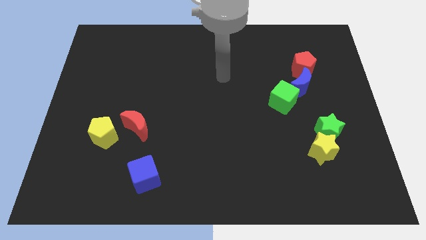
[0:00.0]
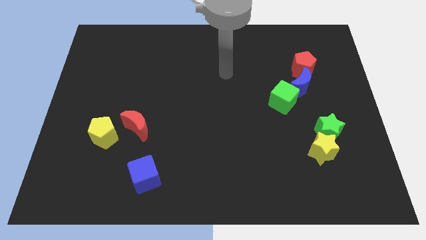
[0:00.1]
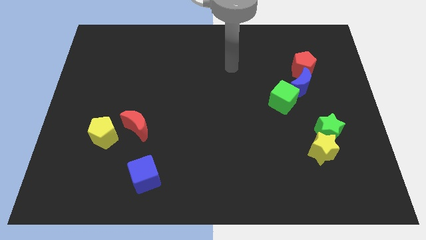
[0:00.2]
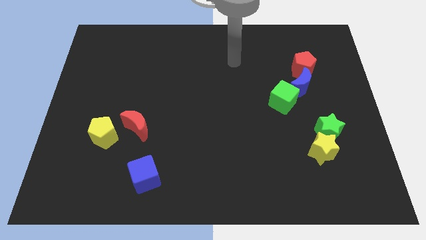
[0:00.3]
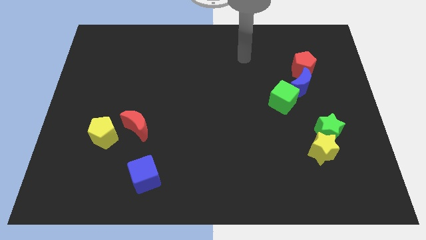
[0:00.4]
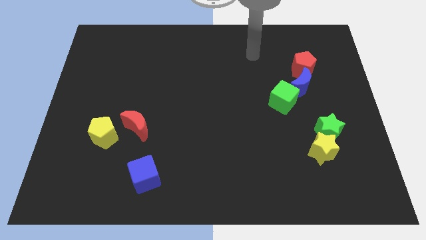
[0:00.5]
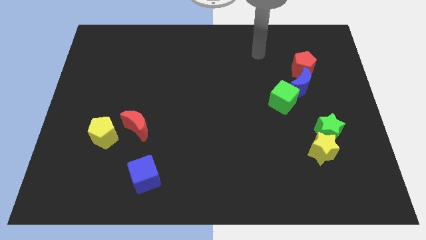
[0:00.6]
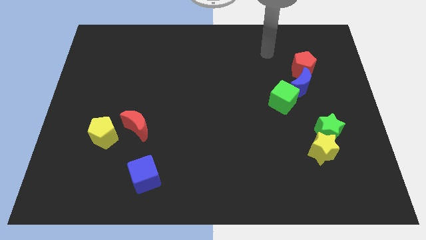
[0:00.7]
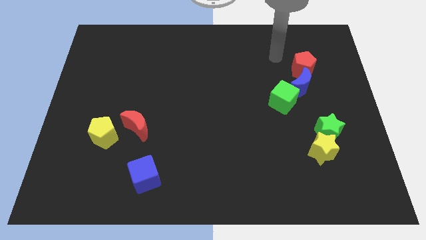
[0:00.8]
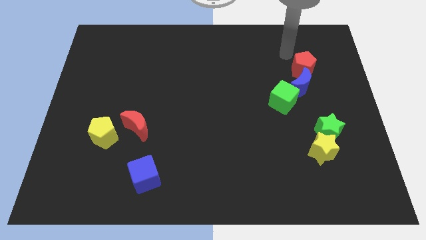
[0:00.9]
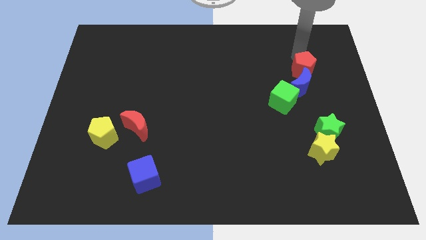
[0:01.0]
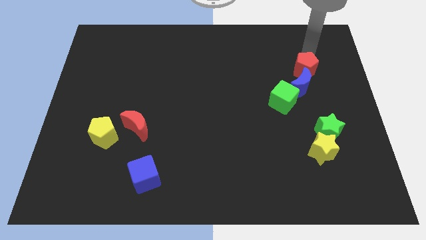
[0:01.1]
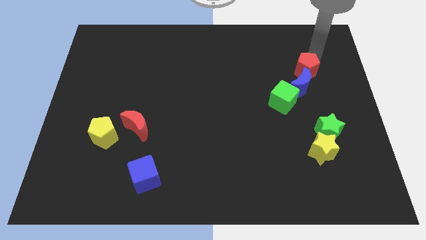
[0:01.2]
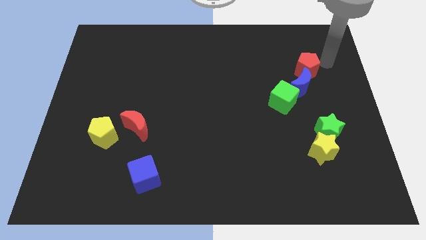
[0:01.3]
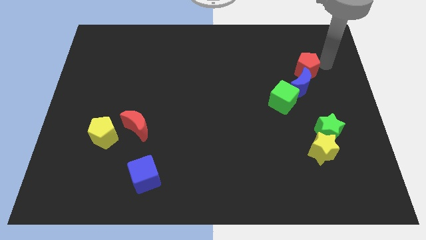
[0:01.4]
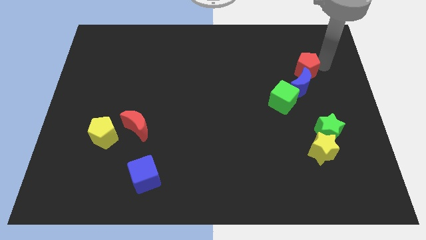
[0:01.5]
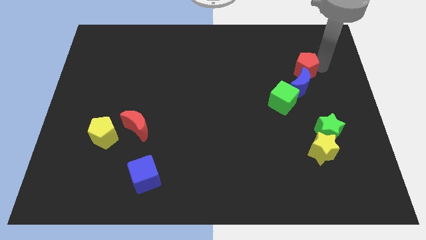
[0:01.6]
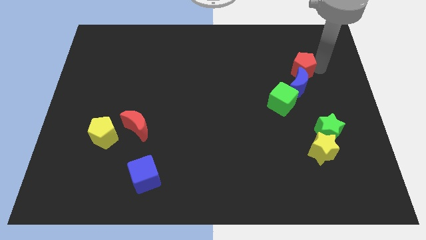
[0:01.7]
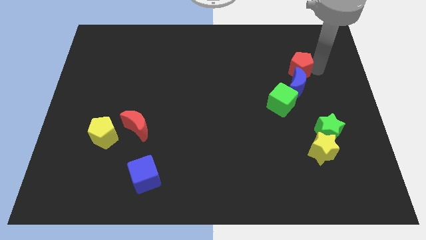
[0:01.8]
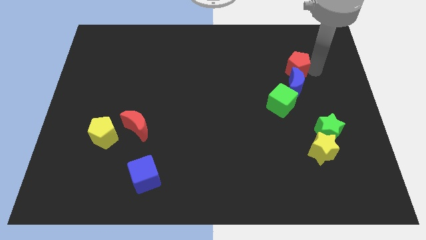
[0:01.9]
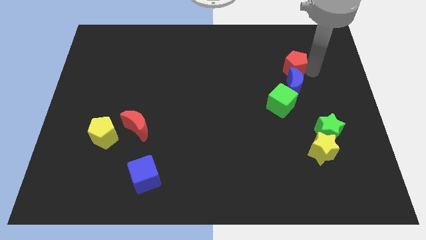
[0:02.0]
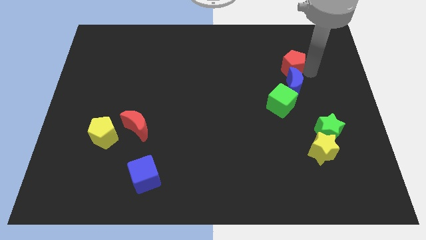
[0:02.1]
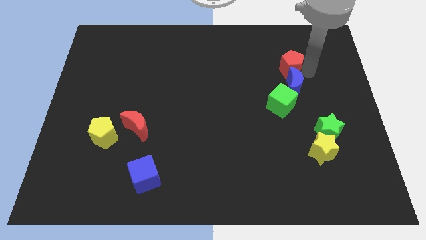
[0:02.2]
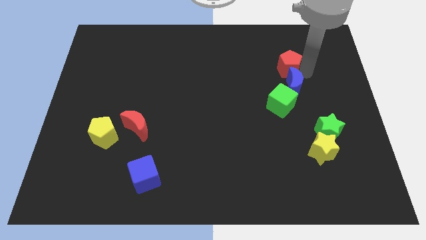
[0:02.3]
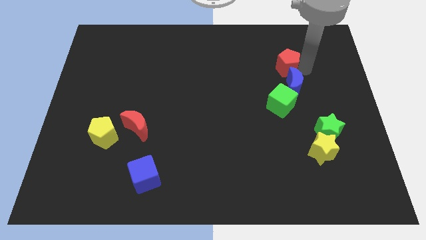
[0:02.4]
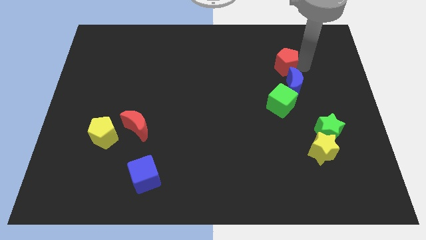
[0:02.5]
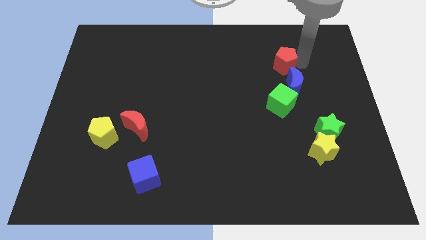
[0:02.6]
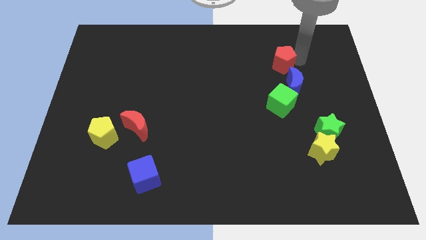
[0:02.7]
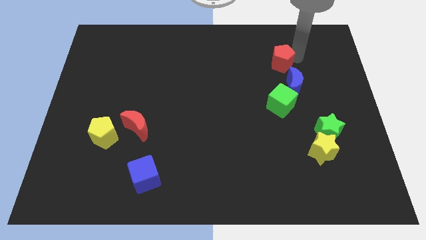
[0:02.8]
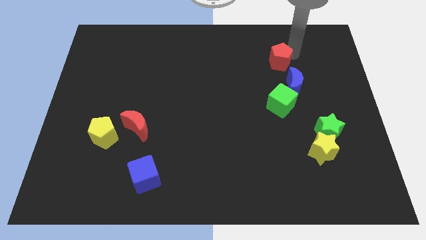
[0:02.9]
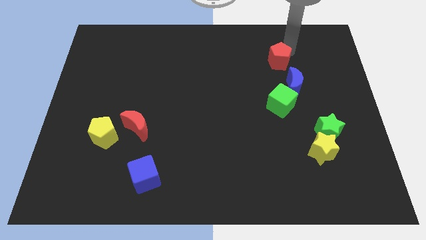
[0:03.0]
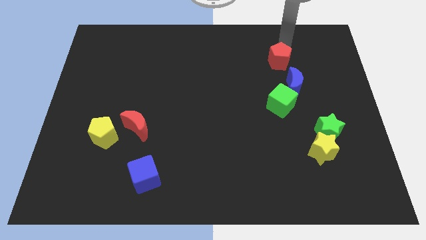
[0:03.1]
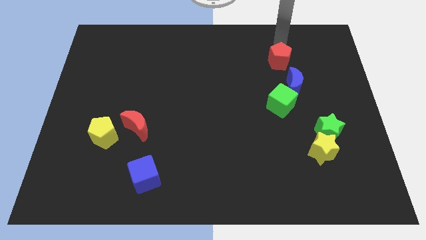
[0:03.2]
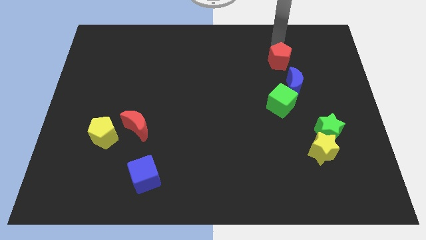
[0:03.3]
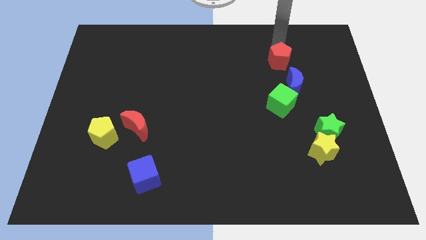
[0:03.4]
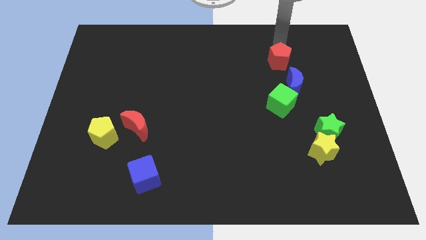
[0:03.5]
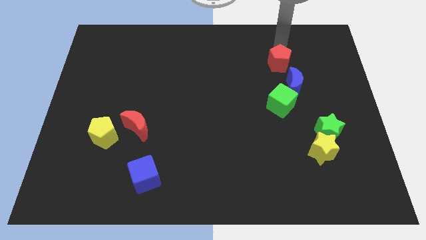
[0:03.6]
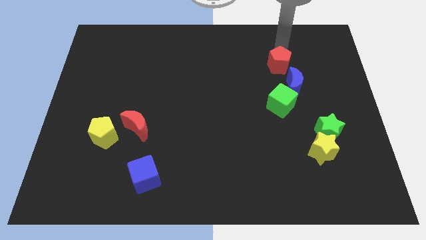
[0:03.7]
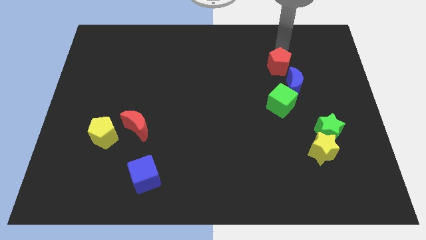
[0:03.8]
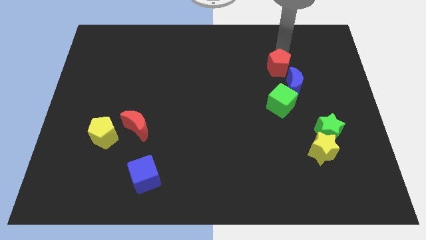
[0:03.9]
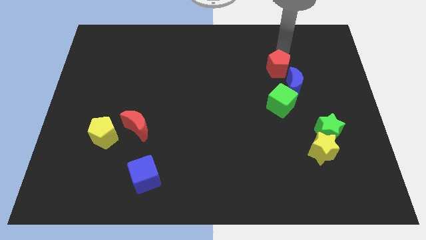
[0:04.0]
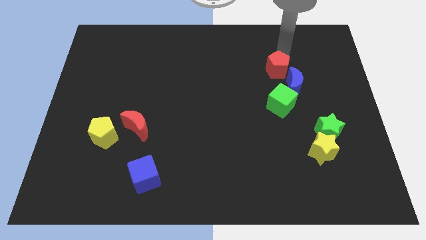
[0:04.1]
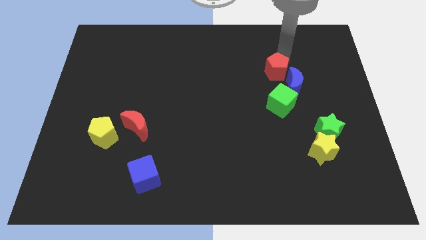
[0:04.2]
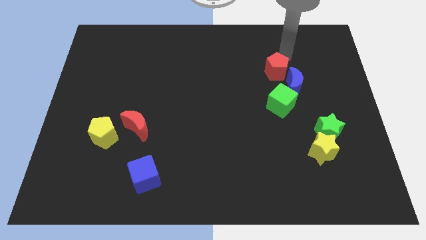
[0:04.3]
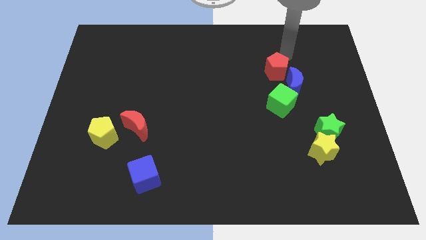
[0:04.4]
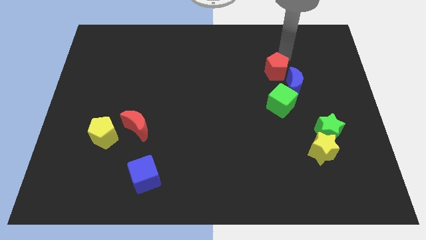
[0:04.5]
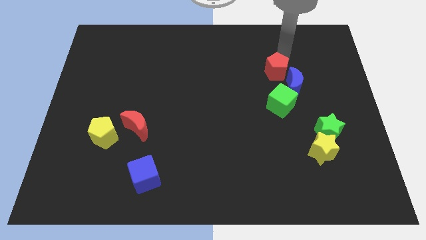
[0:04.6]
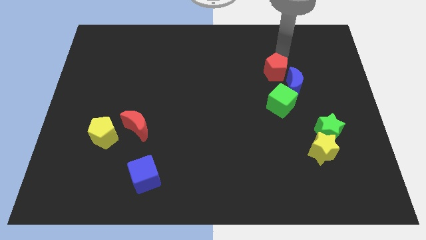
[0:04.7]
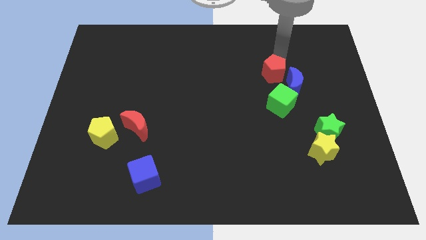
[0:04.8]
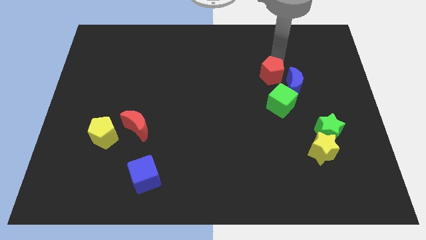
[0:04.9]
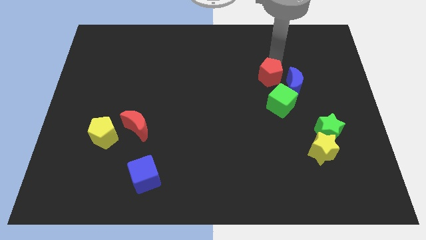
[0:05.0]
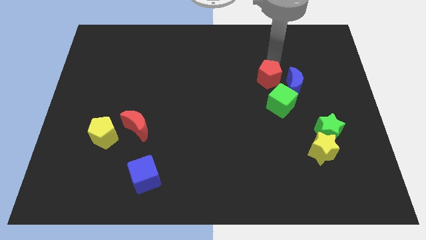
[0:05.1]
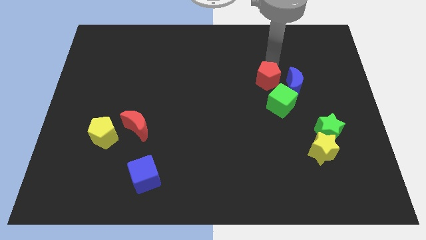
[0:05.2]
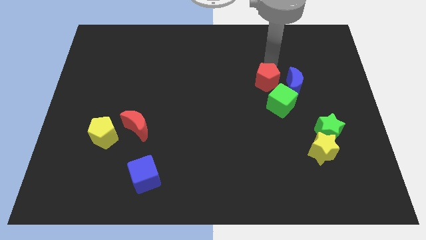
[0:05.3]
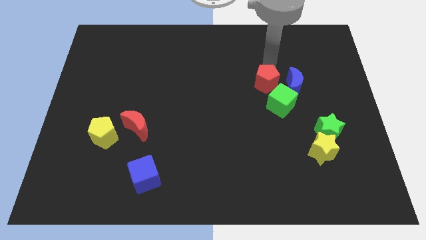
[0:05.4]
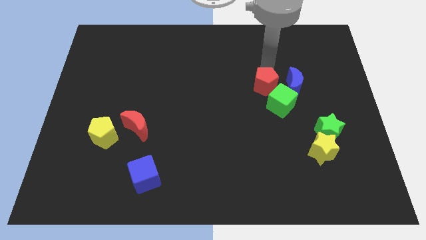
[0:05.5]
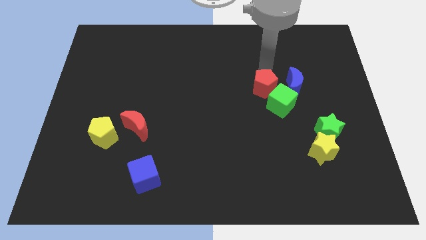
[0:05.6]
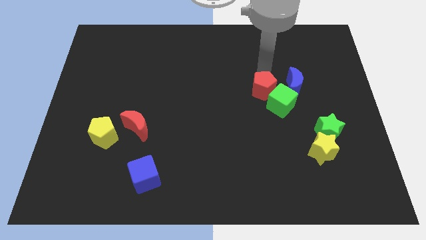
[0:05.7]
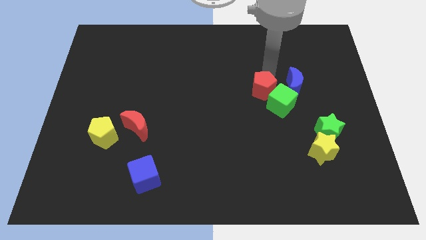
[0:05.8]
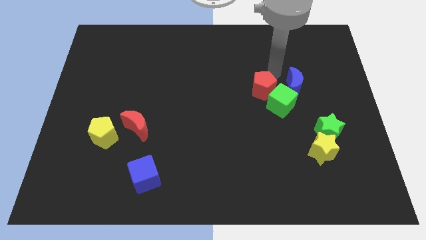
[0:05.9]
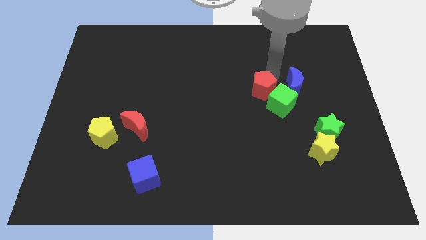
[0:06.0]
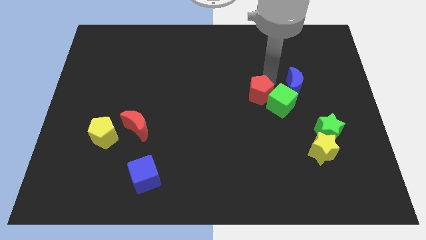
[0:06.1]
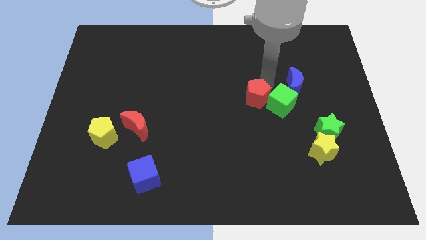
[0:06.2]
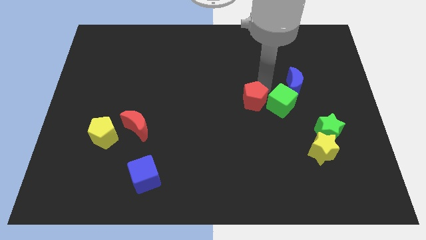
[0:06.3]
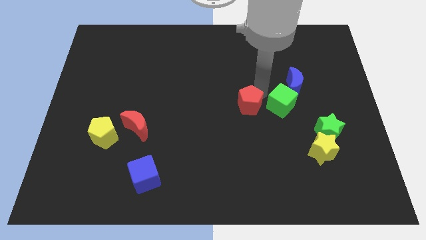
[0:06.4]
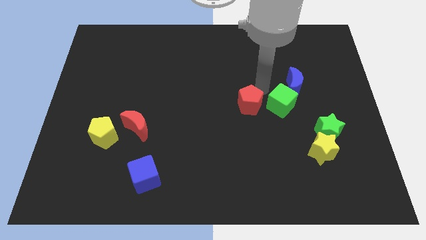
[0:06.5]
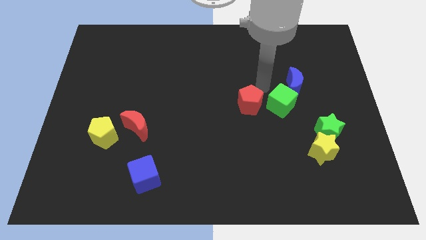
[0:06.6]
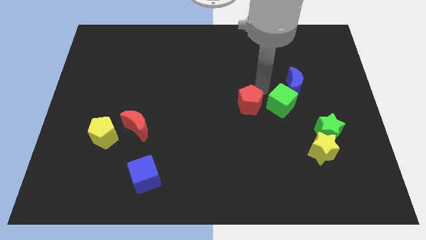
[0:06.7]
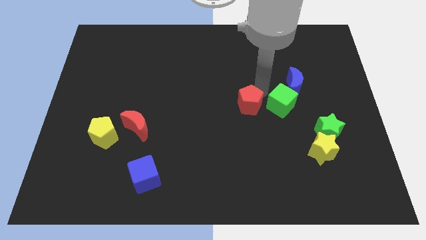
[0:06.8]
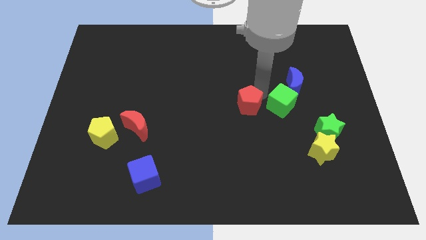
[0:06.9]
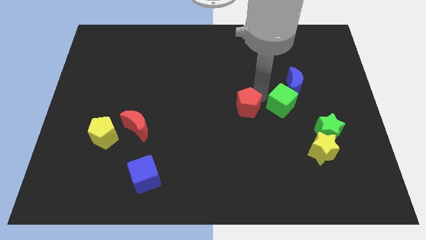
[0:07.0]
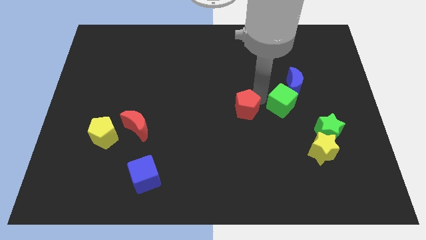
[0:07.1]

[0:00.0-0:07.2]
slide the red pentagon downwards and then left

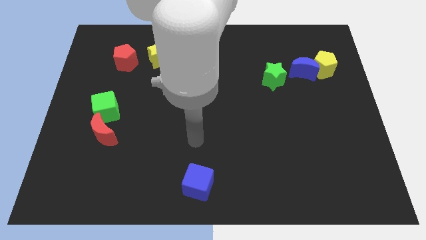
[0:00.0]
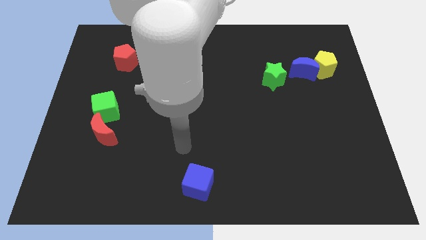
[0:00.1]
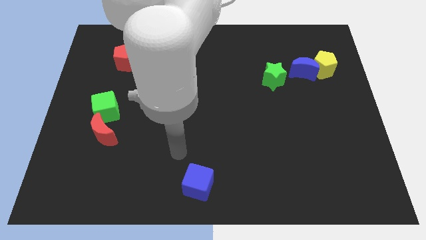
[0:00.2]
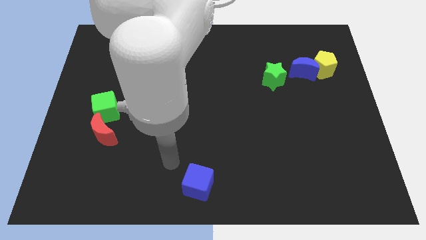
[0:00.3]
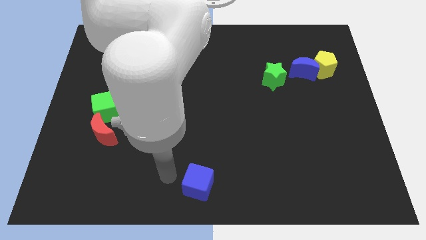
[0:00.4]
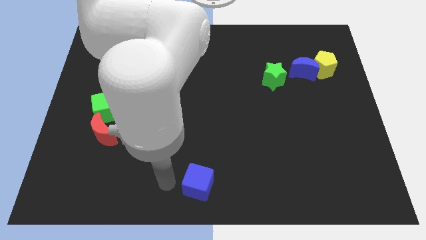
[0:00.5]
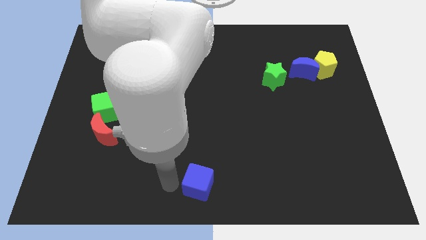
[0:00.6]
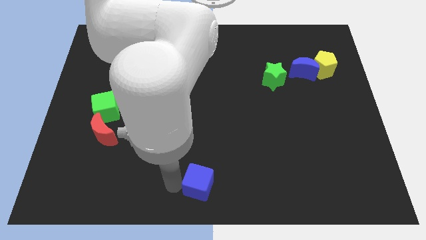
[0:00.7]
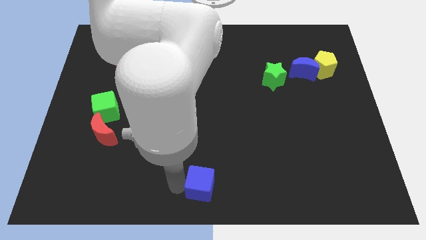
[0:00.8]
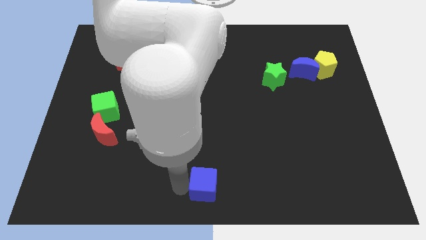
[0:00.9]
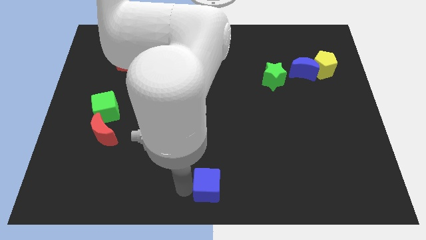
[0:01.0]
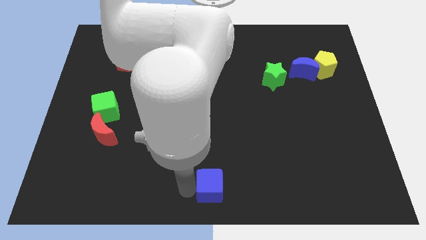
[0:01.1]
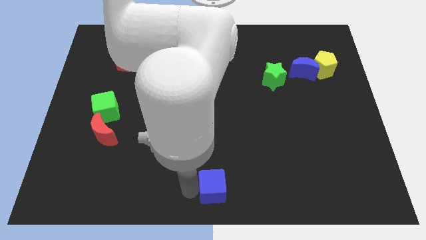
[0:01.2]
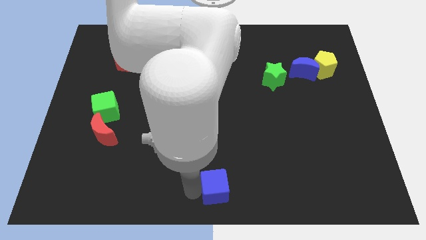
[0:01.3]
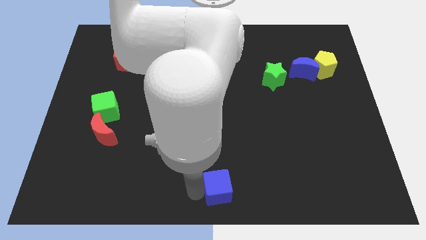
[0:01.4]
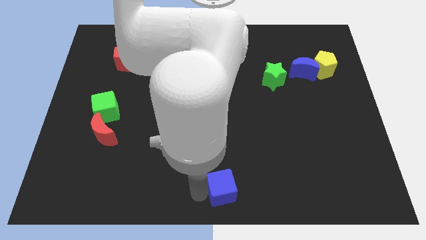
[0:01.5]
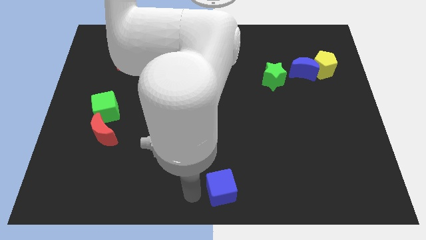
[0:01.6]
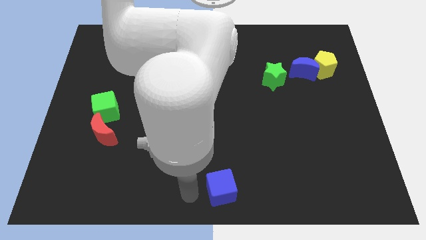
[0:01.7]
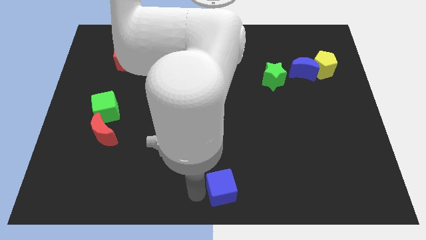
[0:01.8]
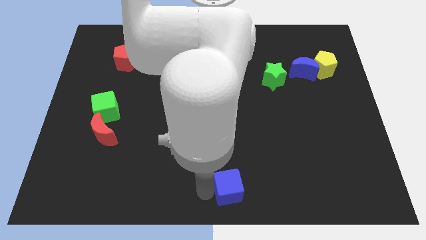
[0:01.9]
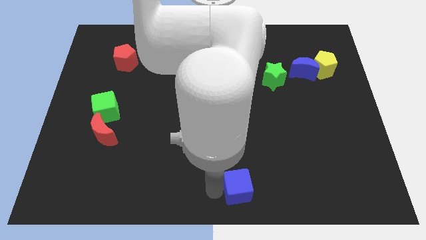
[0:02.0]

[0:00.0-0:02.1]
move the blue cube to the right somewhat
